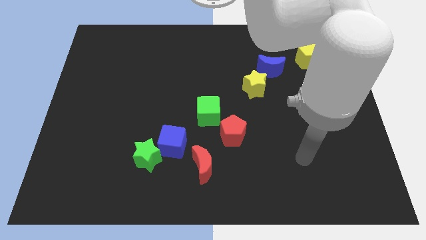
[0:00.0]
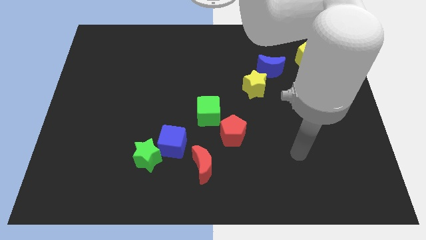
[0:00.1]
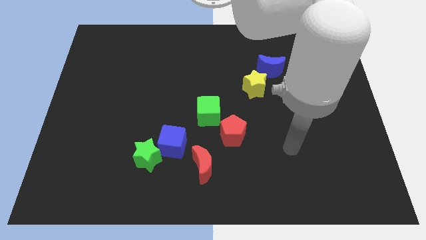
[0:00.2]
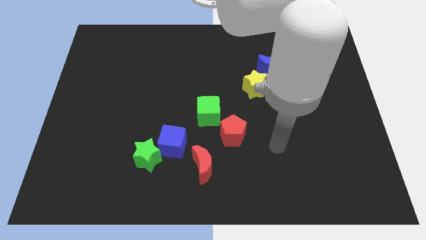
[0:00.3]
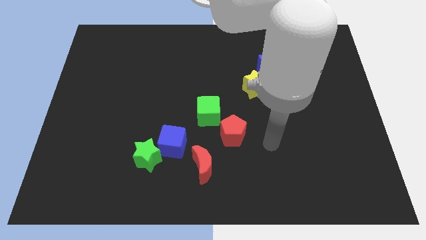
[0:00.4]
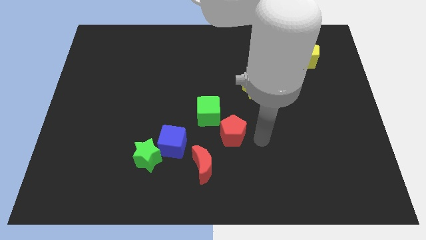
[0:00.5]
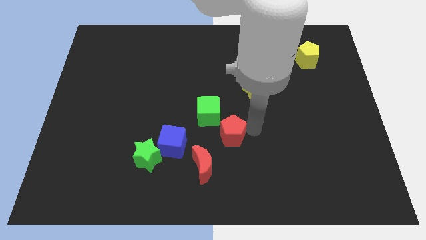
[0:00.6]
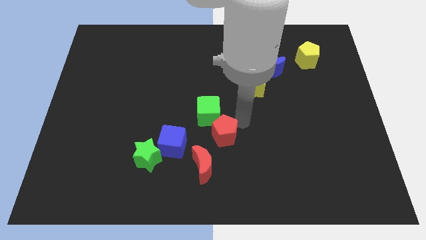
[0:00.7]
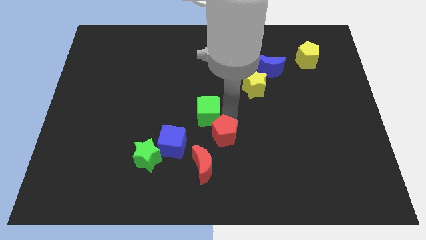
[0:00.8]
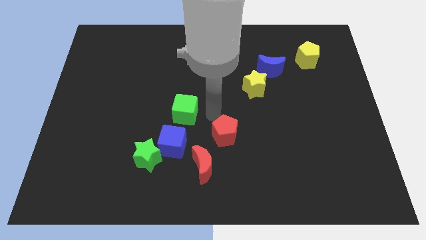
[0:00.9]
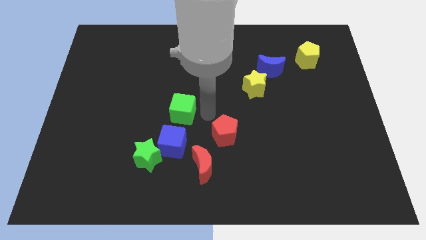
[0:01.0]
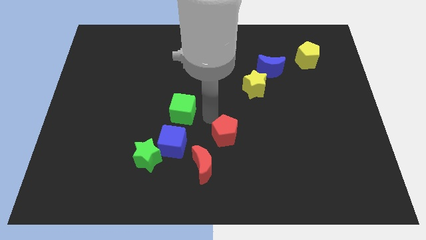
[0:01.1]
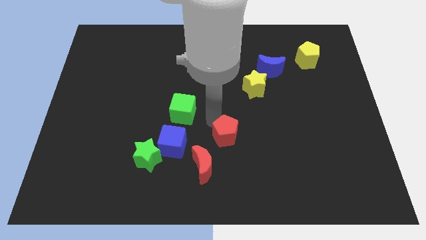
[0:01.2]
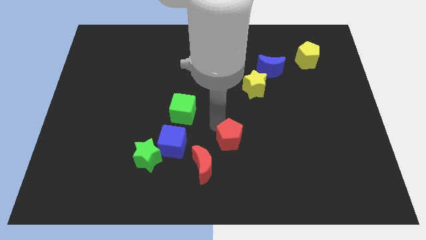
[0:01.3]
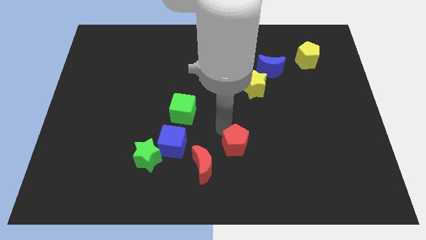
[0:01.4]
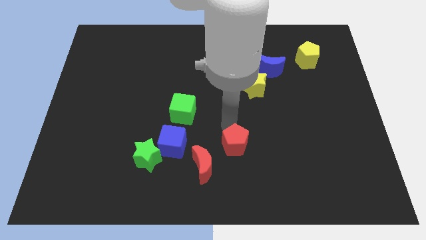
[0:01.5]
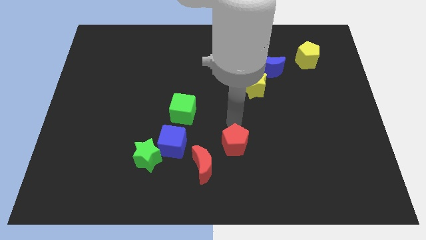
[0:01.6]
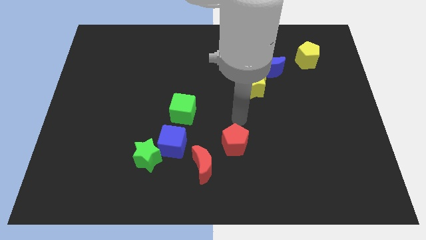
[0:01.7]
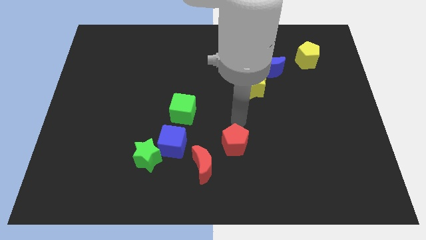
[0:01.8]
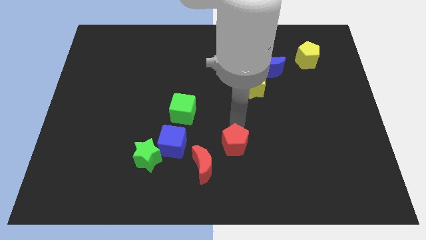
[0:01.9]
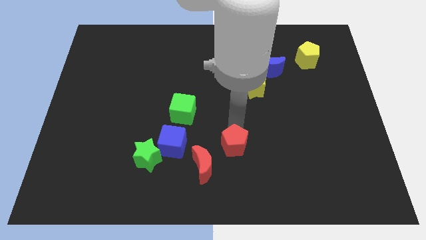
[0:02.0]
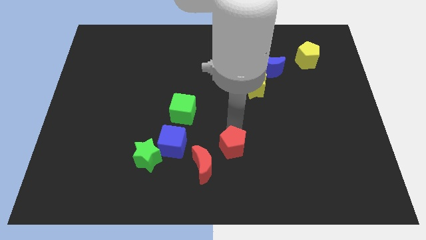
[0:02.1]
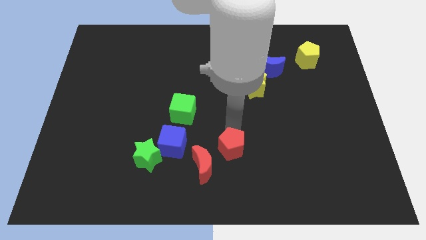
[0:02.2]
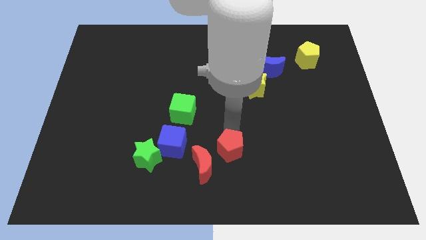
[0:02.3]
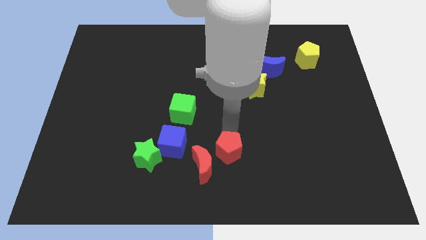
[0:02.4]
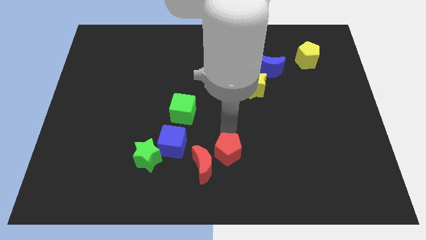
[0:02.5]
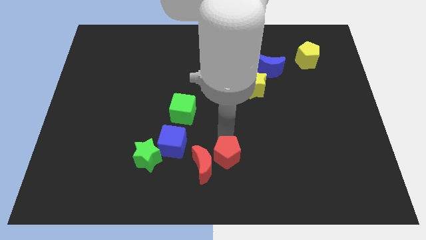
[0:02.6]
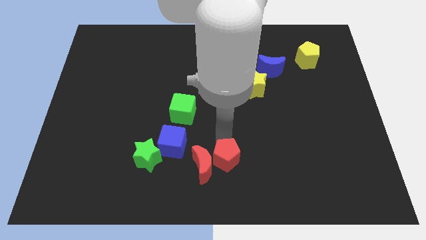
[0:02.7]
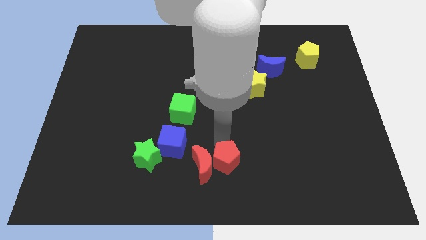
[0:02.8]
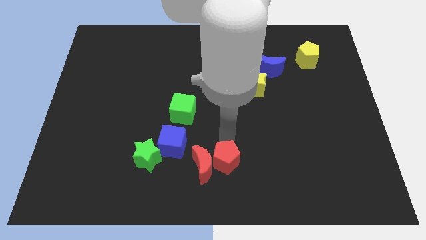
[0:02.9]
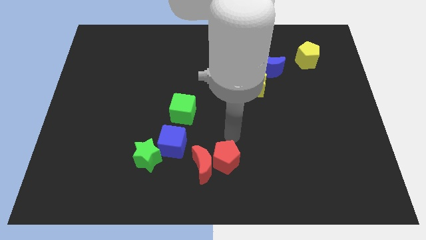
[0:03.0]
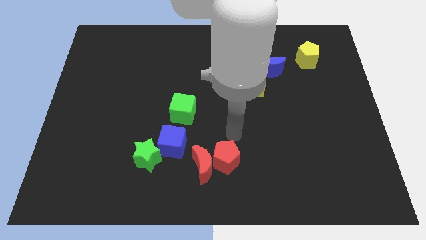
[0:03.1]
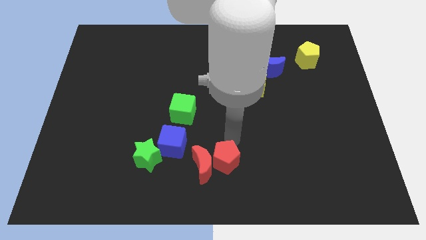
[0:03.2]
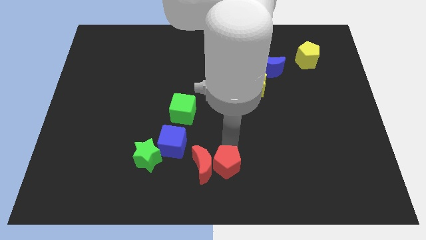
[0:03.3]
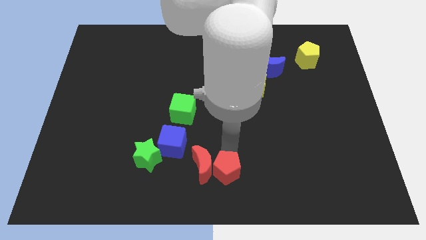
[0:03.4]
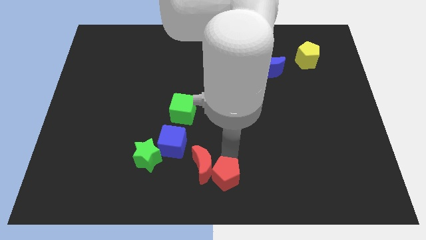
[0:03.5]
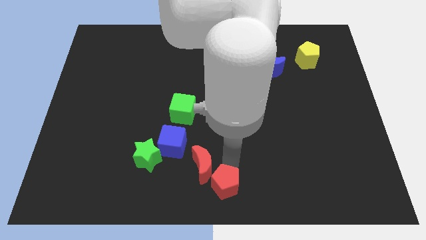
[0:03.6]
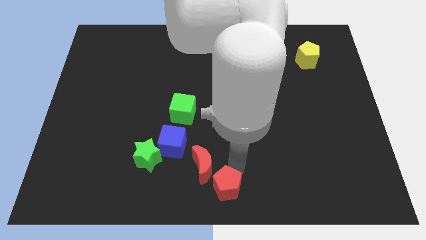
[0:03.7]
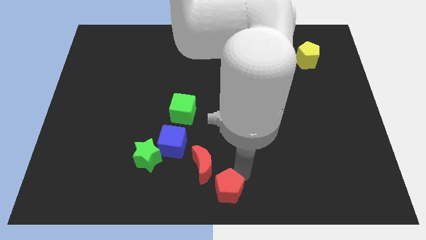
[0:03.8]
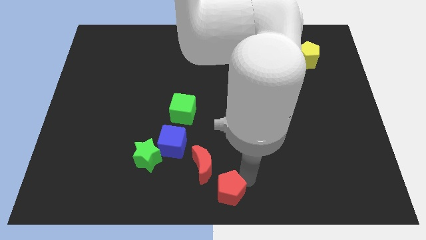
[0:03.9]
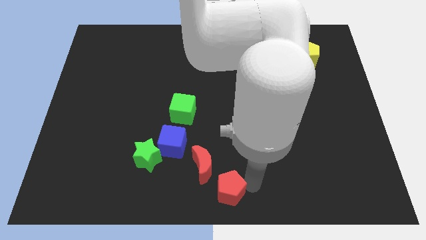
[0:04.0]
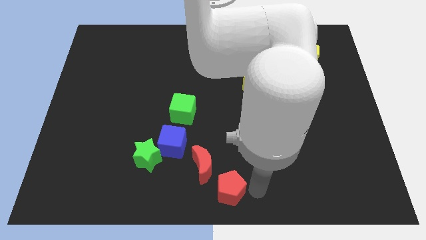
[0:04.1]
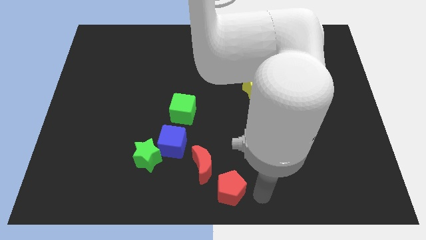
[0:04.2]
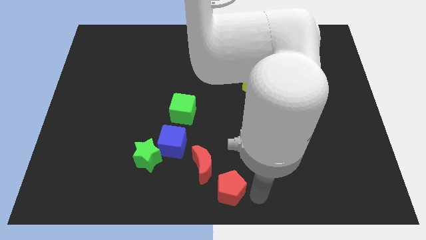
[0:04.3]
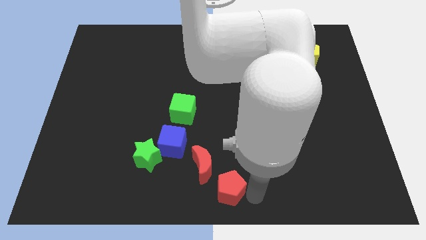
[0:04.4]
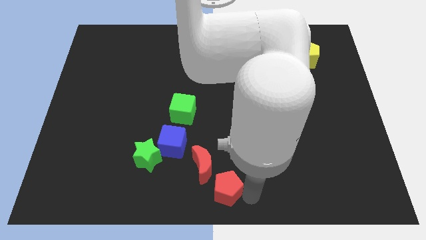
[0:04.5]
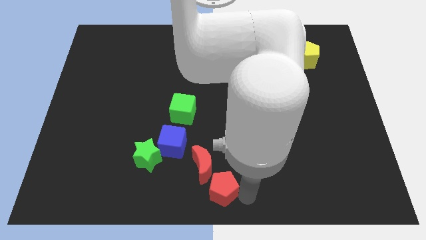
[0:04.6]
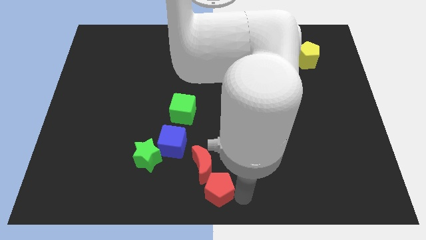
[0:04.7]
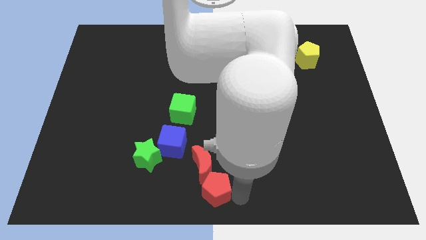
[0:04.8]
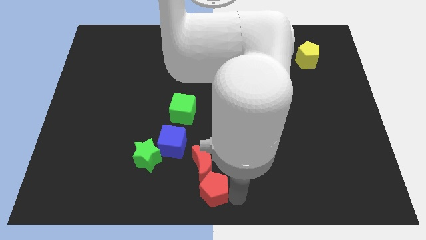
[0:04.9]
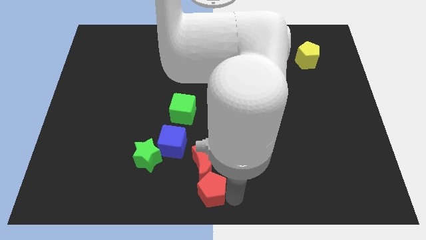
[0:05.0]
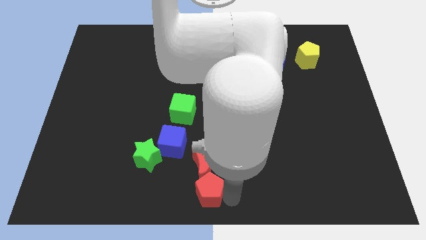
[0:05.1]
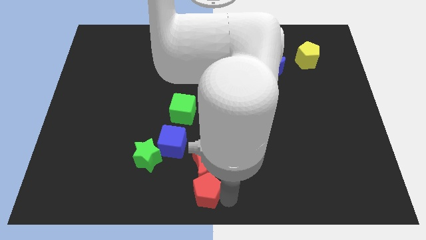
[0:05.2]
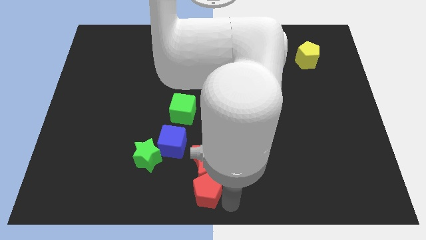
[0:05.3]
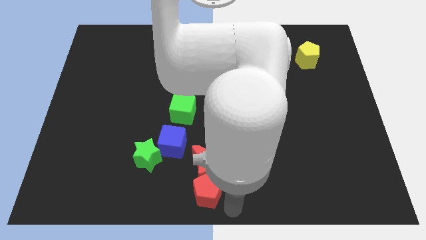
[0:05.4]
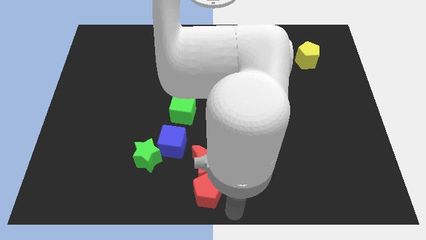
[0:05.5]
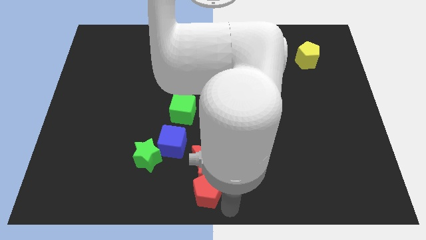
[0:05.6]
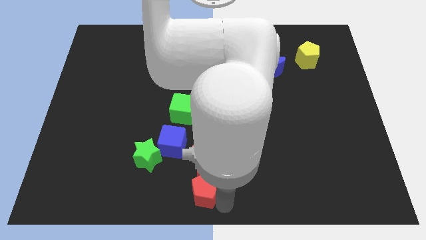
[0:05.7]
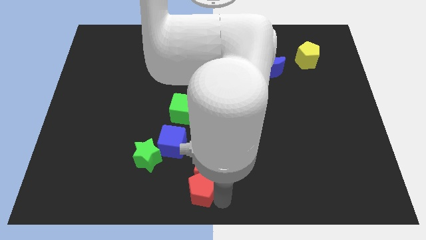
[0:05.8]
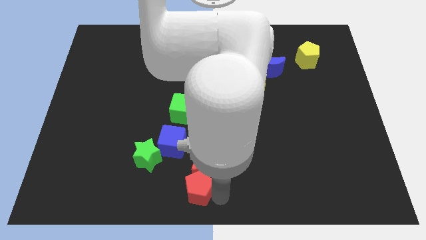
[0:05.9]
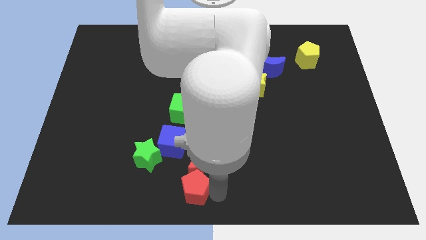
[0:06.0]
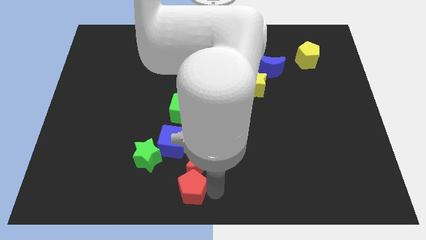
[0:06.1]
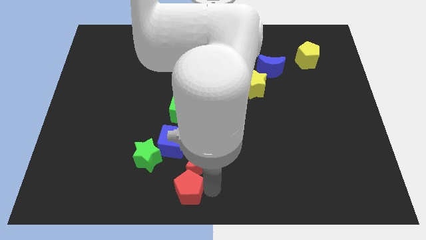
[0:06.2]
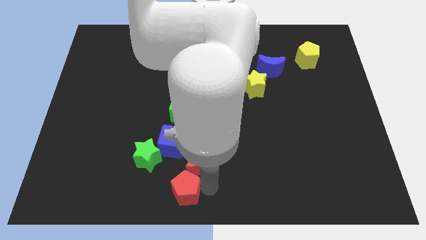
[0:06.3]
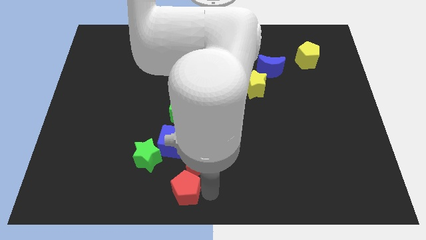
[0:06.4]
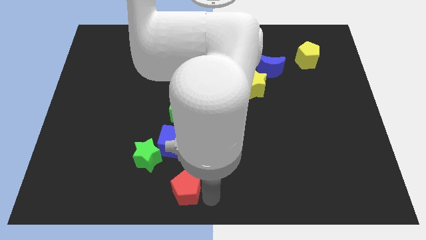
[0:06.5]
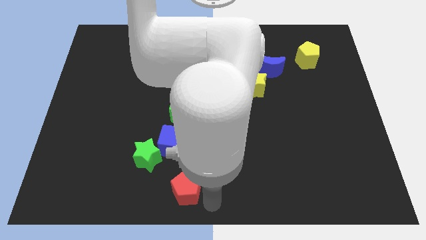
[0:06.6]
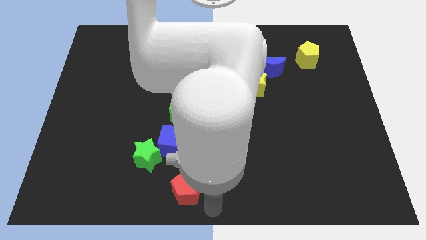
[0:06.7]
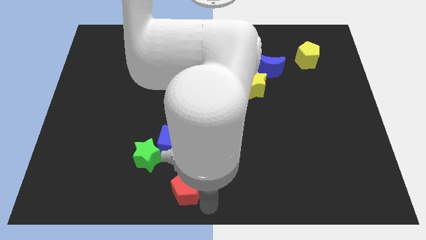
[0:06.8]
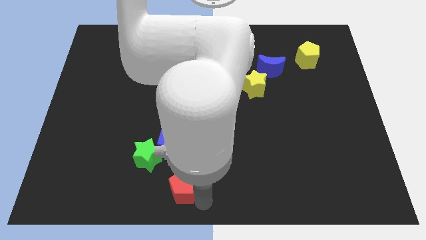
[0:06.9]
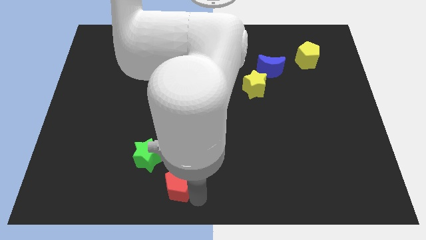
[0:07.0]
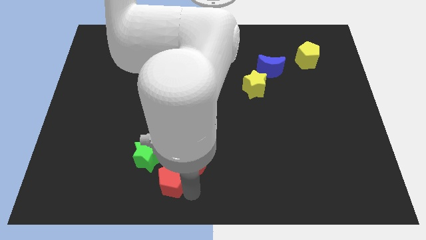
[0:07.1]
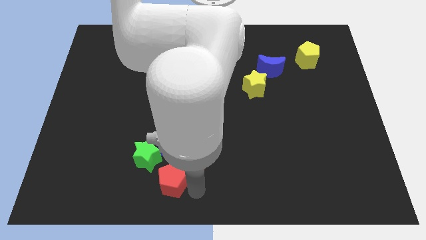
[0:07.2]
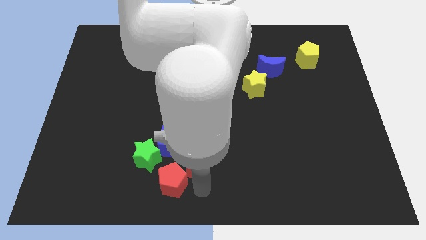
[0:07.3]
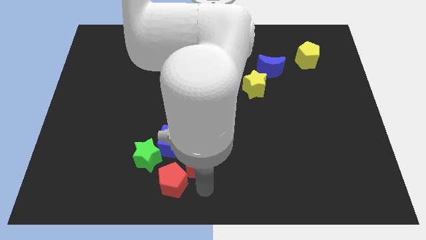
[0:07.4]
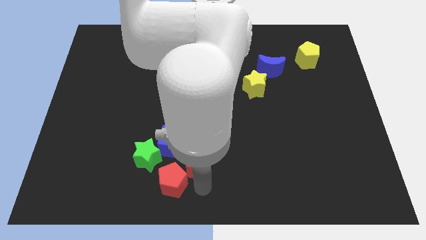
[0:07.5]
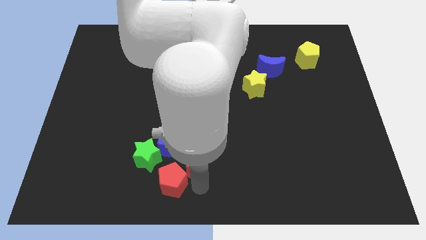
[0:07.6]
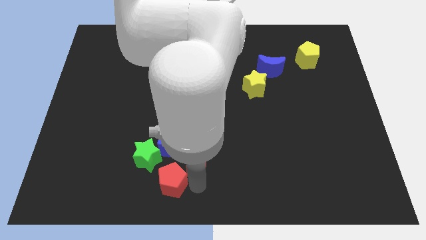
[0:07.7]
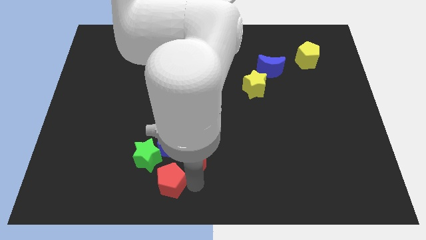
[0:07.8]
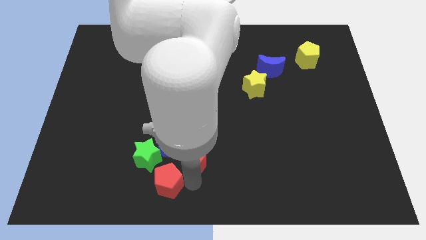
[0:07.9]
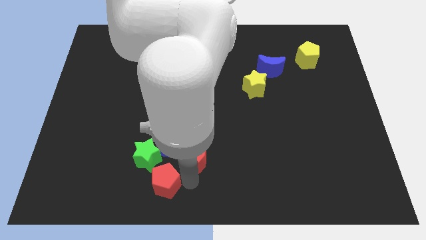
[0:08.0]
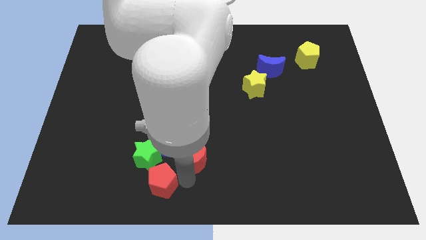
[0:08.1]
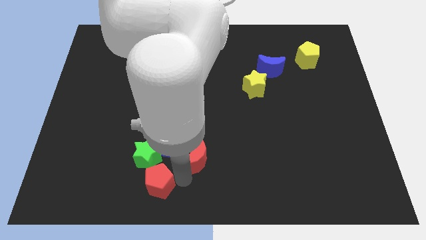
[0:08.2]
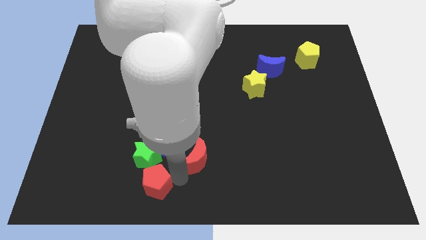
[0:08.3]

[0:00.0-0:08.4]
slide the red pentagon diagonally down and to the left of the blue cube
